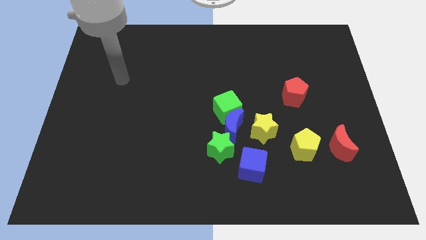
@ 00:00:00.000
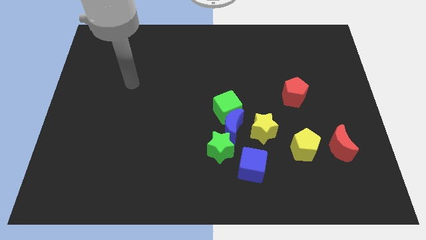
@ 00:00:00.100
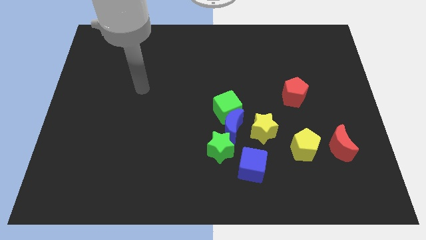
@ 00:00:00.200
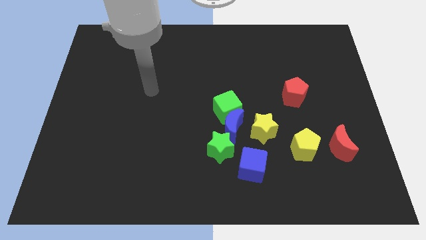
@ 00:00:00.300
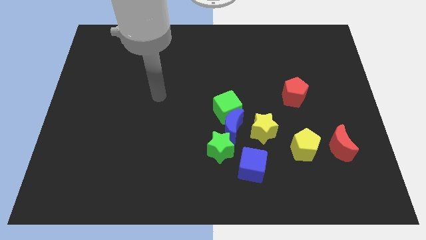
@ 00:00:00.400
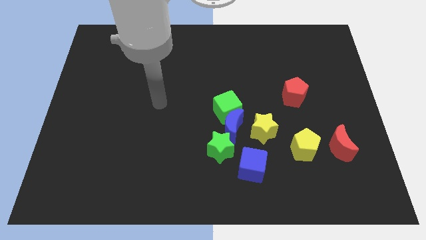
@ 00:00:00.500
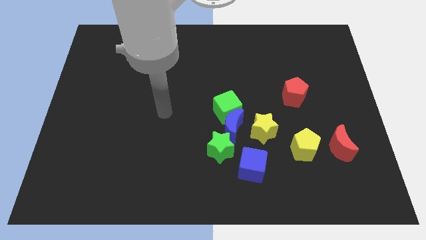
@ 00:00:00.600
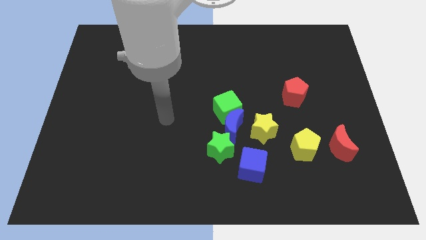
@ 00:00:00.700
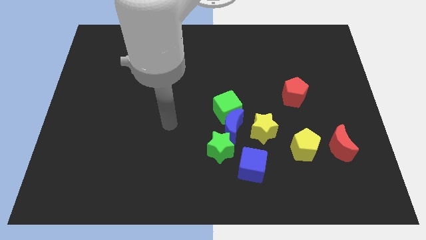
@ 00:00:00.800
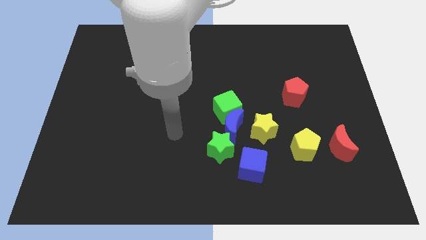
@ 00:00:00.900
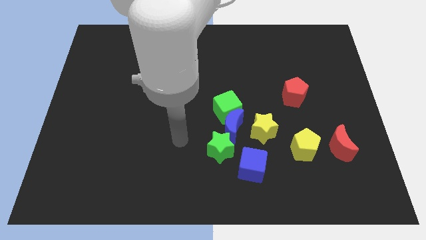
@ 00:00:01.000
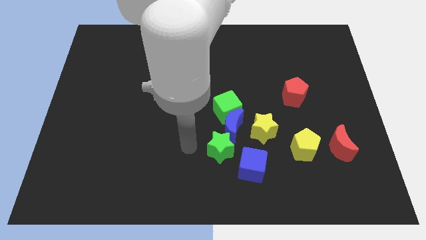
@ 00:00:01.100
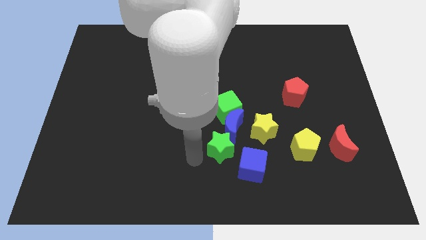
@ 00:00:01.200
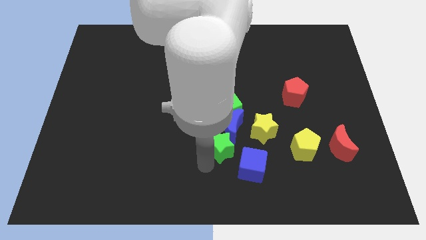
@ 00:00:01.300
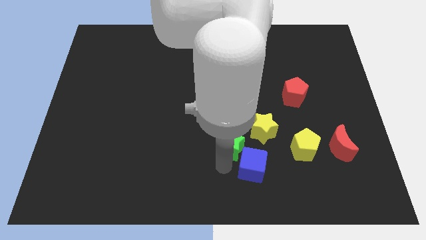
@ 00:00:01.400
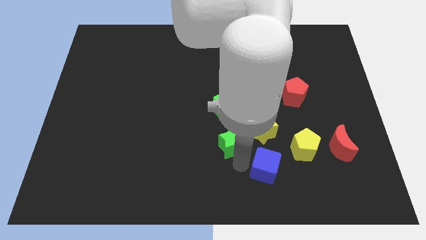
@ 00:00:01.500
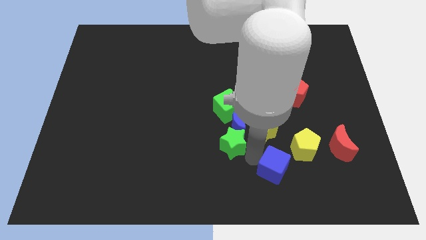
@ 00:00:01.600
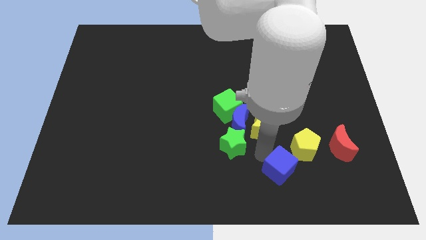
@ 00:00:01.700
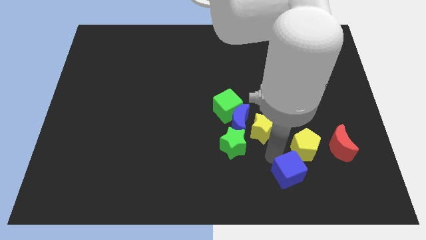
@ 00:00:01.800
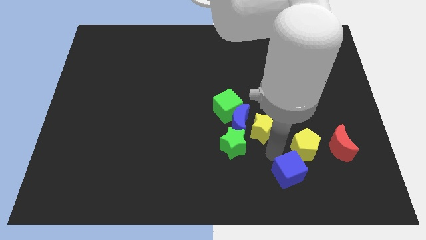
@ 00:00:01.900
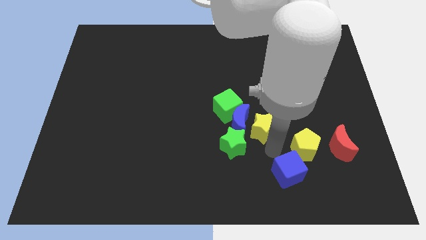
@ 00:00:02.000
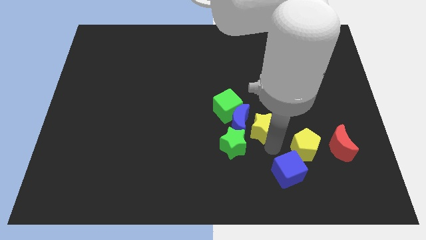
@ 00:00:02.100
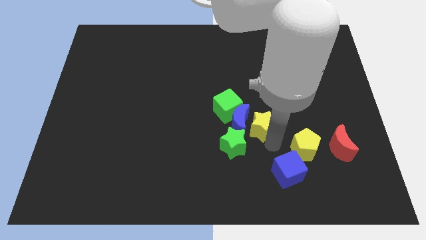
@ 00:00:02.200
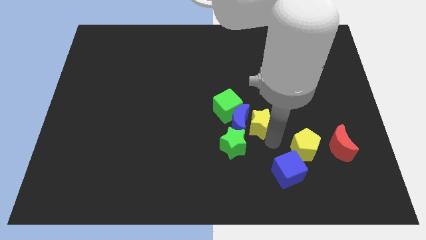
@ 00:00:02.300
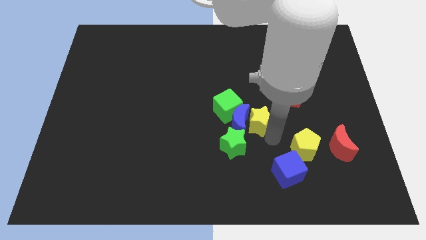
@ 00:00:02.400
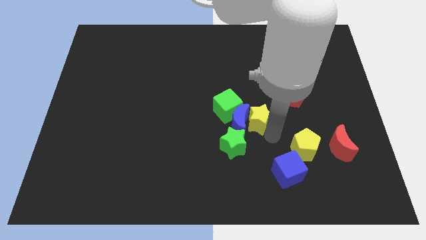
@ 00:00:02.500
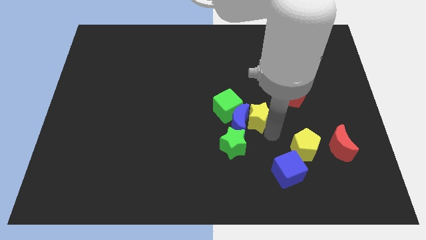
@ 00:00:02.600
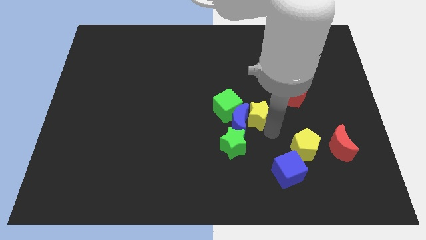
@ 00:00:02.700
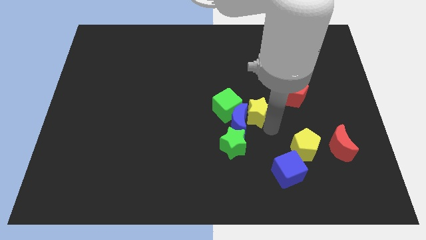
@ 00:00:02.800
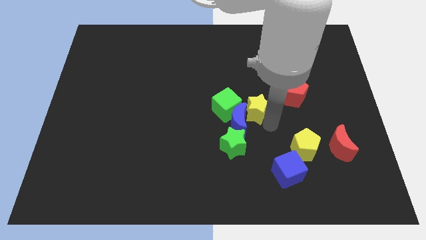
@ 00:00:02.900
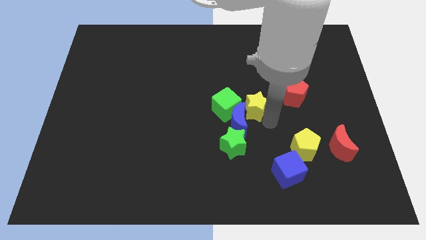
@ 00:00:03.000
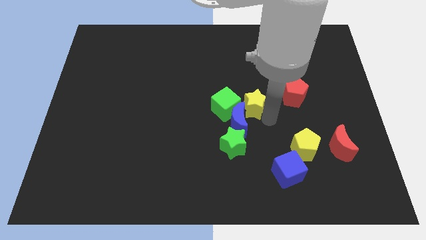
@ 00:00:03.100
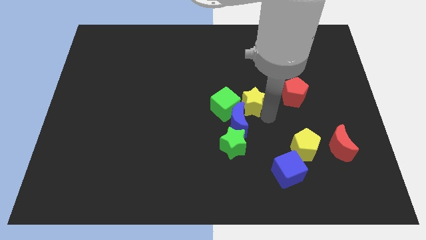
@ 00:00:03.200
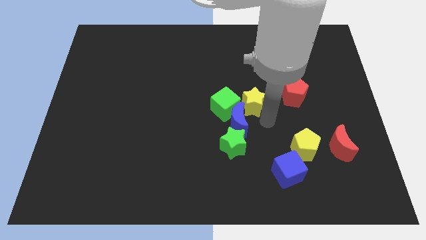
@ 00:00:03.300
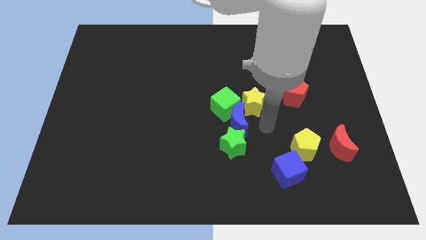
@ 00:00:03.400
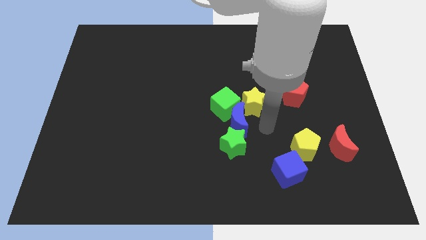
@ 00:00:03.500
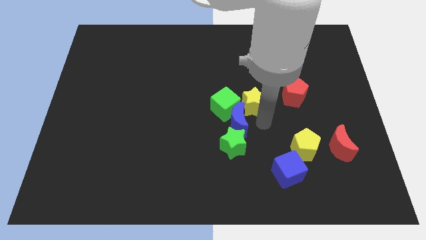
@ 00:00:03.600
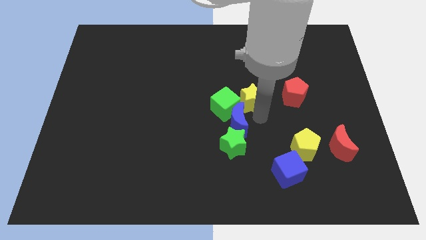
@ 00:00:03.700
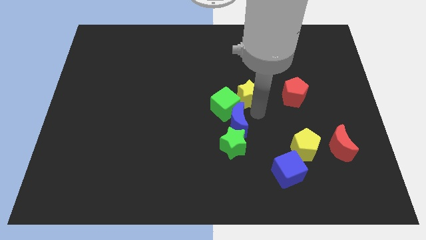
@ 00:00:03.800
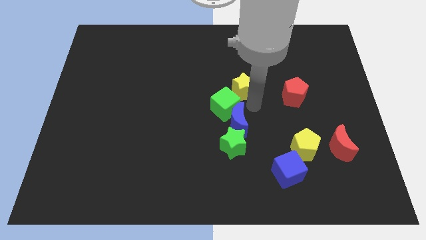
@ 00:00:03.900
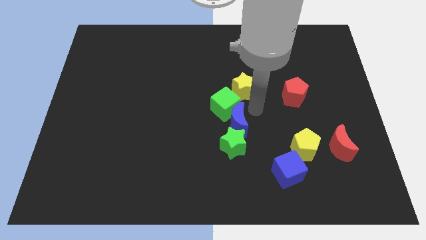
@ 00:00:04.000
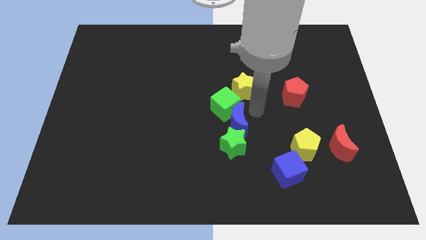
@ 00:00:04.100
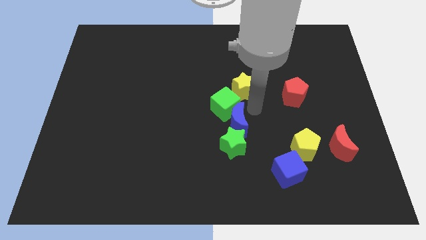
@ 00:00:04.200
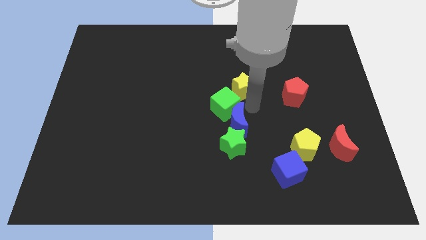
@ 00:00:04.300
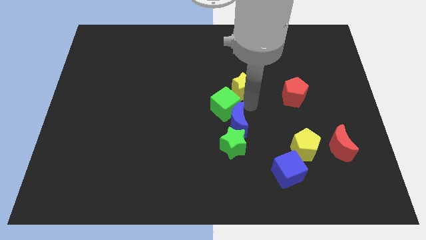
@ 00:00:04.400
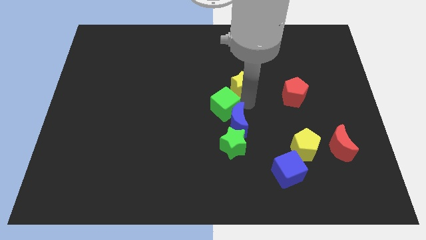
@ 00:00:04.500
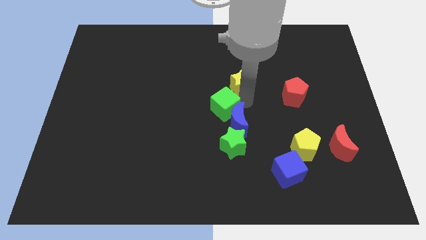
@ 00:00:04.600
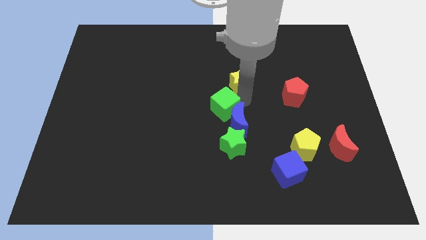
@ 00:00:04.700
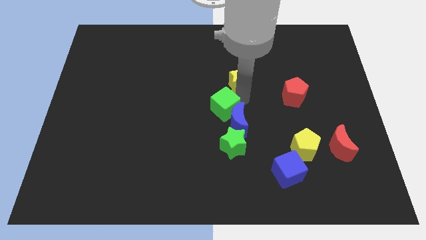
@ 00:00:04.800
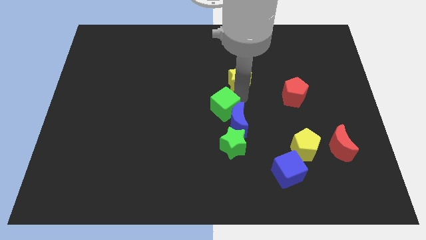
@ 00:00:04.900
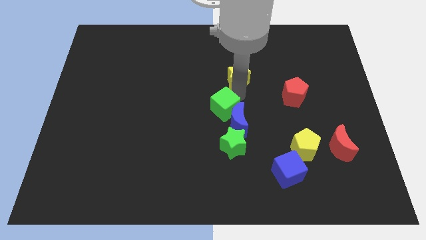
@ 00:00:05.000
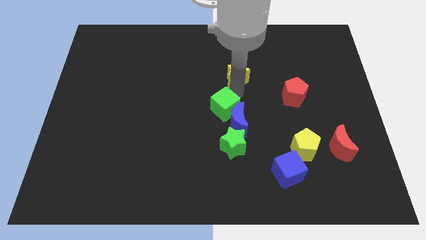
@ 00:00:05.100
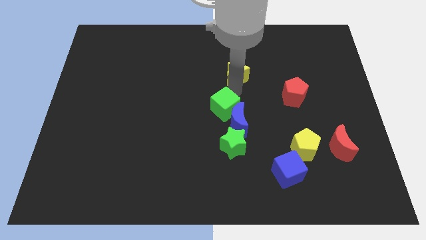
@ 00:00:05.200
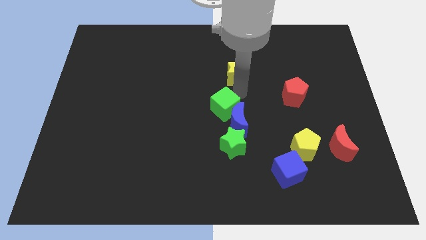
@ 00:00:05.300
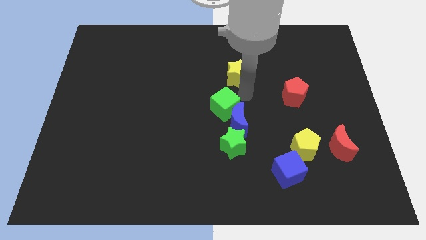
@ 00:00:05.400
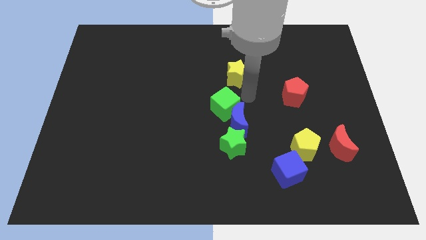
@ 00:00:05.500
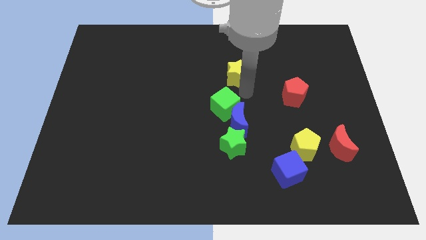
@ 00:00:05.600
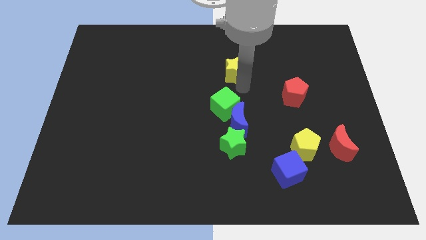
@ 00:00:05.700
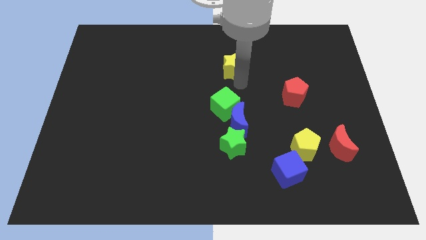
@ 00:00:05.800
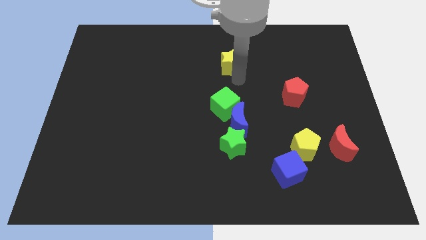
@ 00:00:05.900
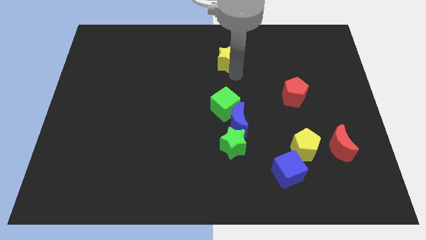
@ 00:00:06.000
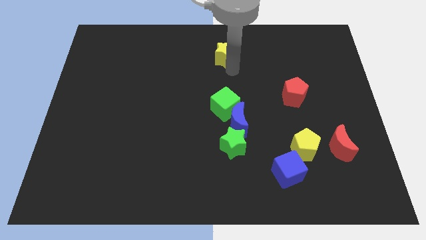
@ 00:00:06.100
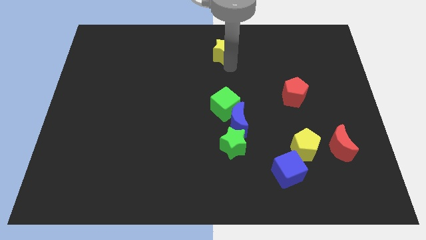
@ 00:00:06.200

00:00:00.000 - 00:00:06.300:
slide the yellow star to the top side
